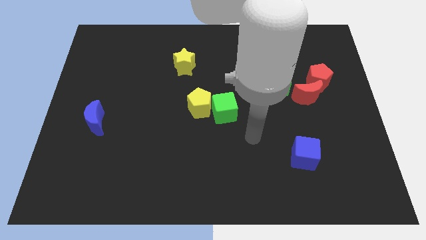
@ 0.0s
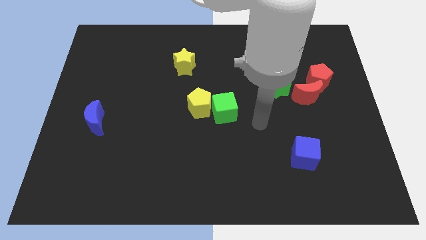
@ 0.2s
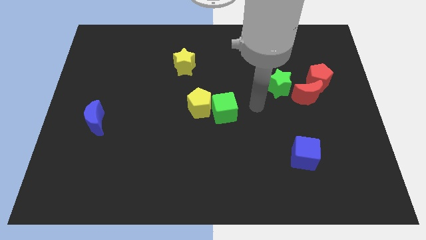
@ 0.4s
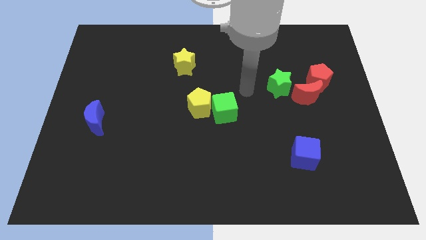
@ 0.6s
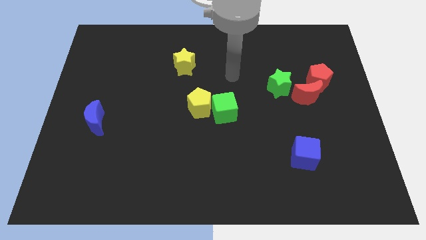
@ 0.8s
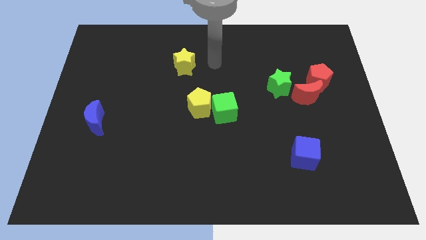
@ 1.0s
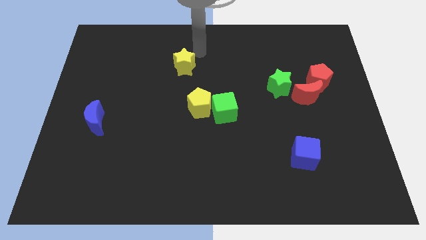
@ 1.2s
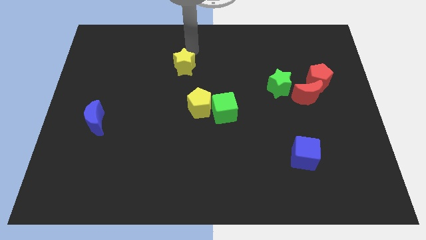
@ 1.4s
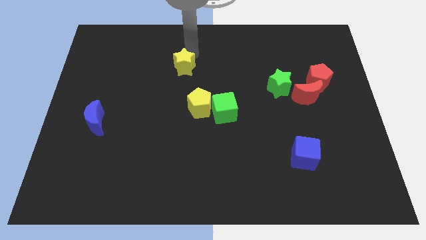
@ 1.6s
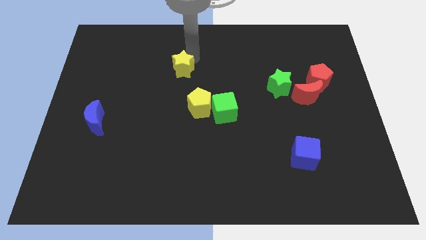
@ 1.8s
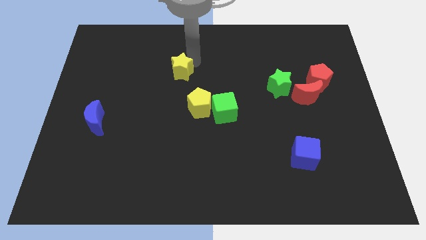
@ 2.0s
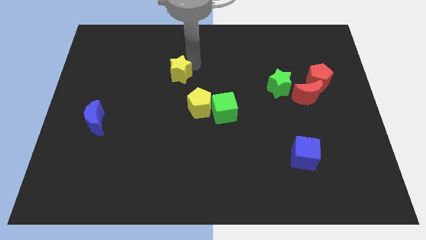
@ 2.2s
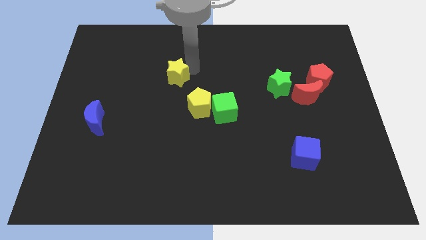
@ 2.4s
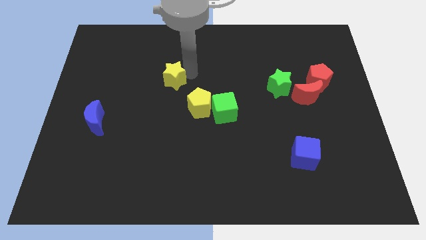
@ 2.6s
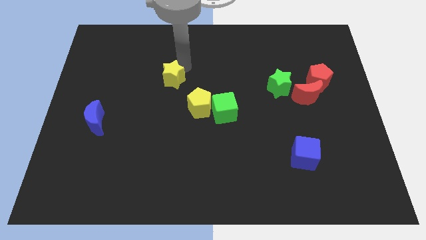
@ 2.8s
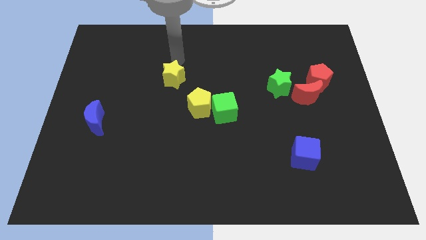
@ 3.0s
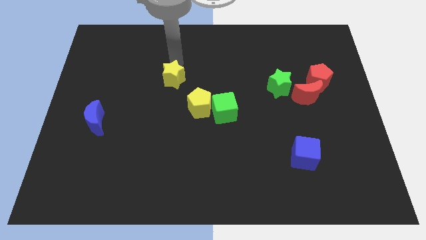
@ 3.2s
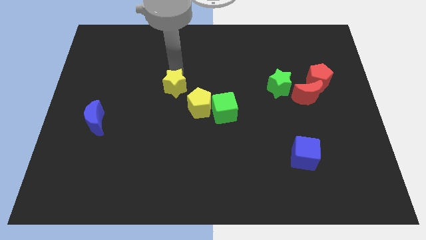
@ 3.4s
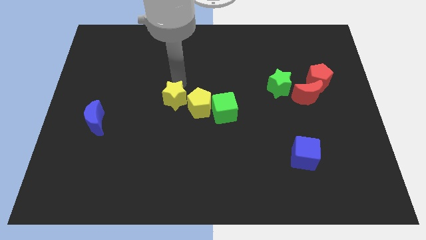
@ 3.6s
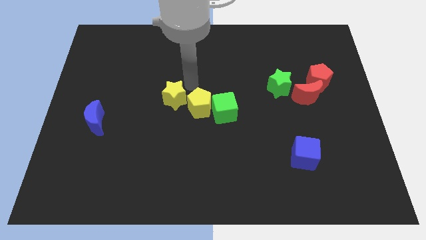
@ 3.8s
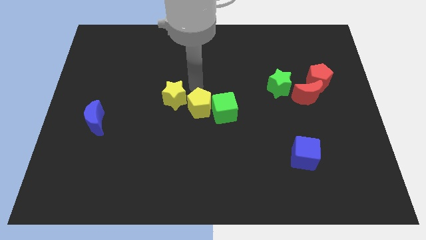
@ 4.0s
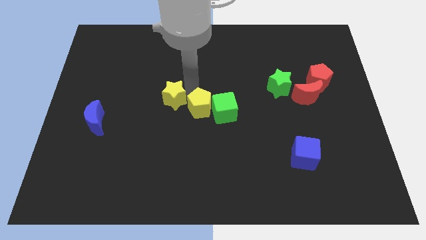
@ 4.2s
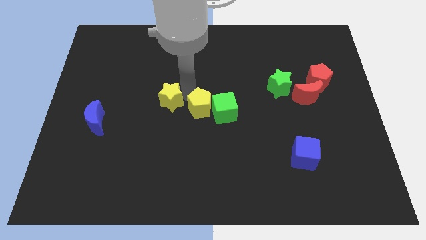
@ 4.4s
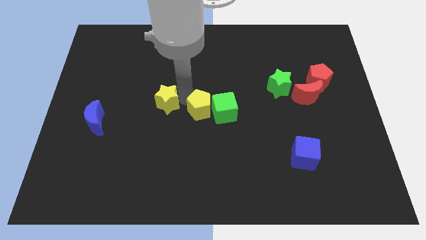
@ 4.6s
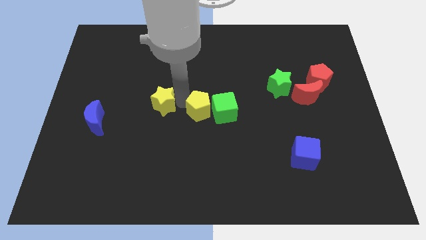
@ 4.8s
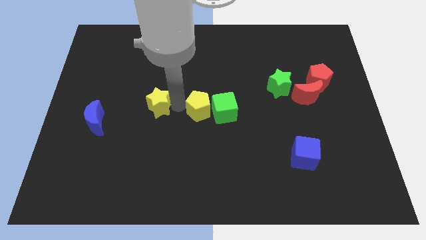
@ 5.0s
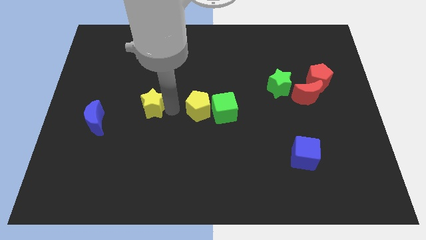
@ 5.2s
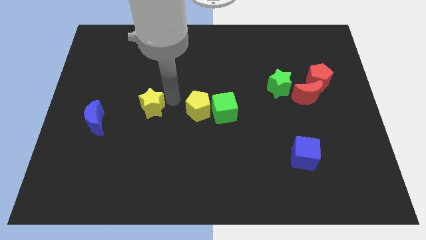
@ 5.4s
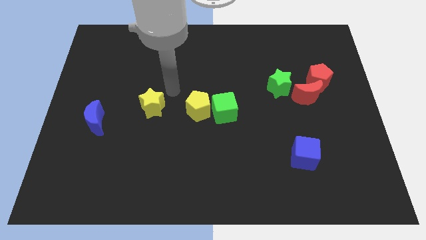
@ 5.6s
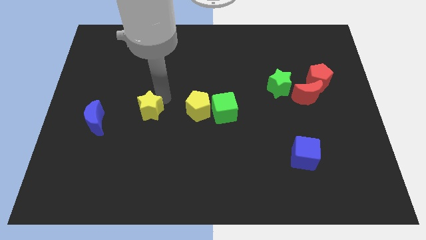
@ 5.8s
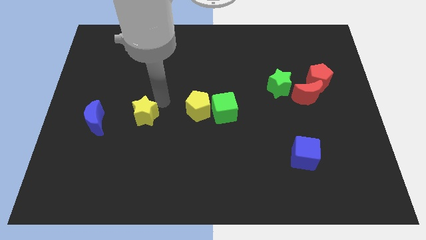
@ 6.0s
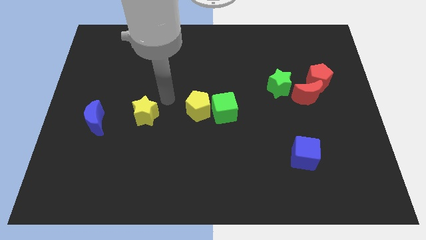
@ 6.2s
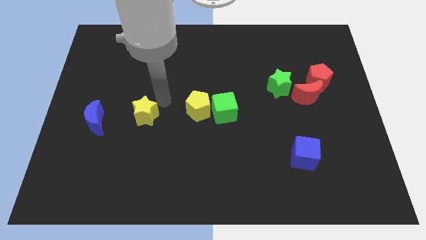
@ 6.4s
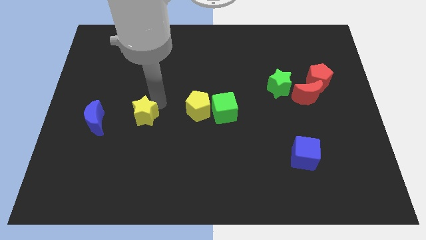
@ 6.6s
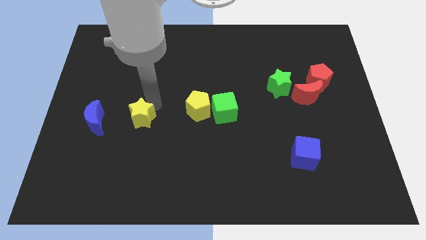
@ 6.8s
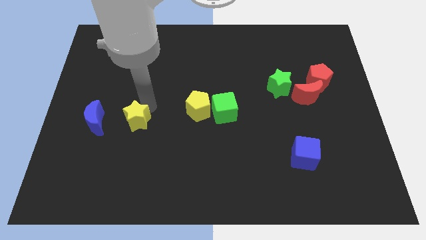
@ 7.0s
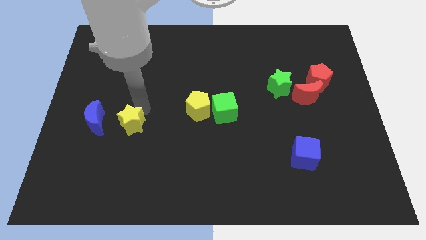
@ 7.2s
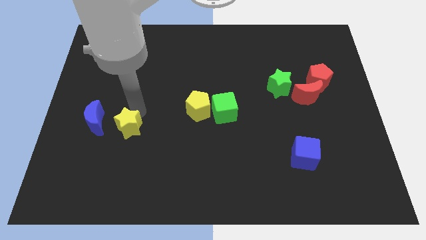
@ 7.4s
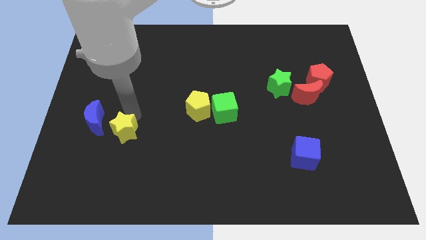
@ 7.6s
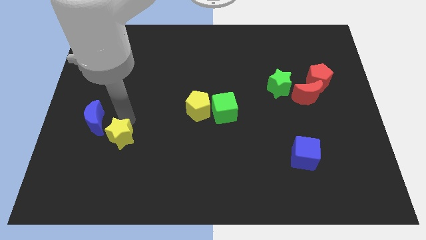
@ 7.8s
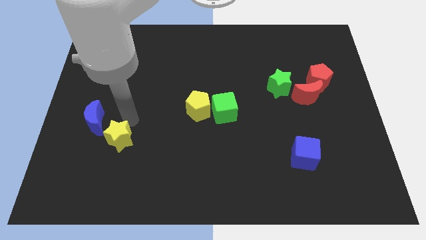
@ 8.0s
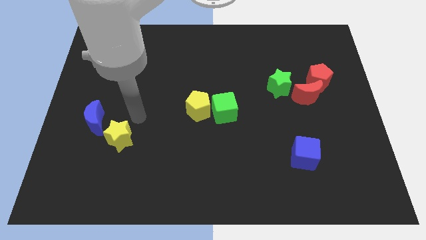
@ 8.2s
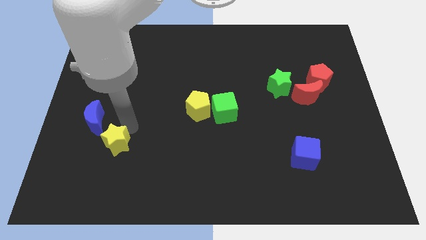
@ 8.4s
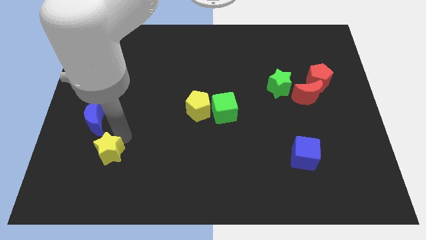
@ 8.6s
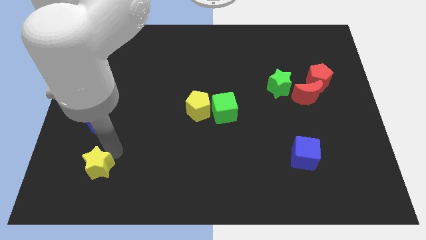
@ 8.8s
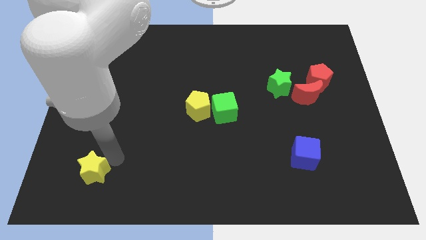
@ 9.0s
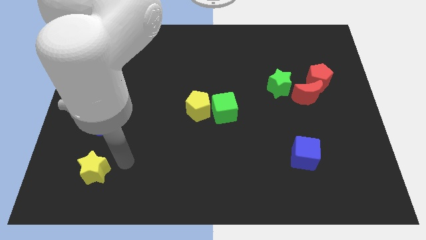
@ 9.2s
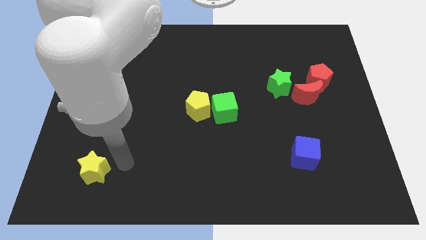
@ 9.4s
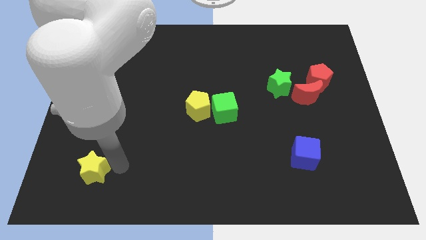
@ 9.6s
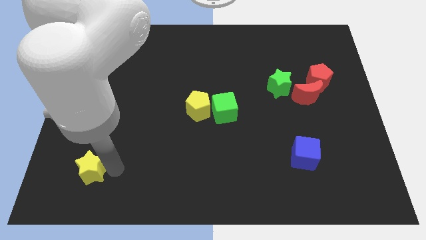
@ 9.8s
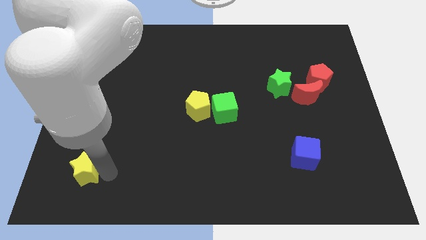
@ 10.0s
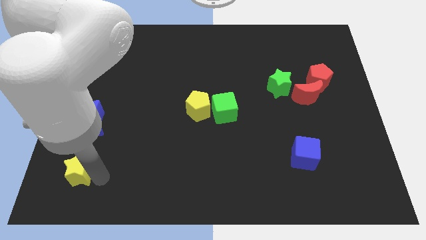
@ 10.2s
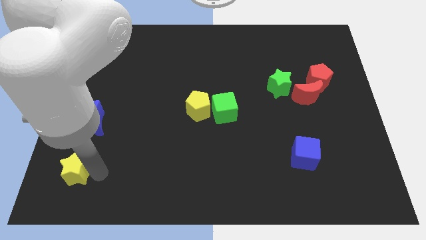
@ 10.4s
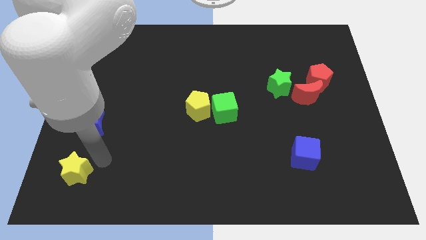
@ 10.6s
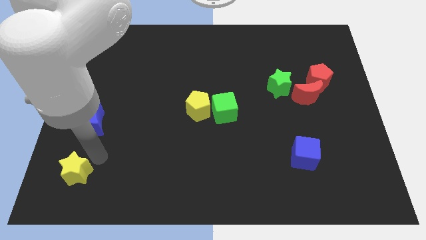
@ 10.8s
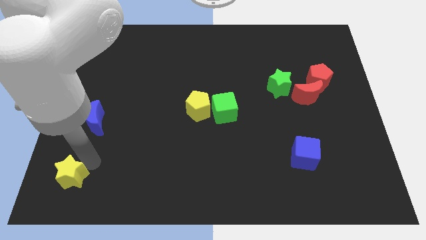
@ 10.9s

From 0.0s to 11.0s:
push the yellow star to the bottom left
